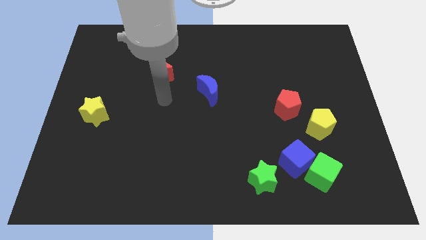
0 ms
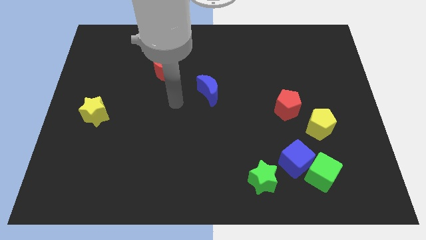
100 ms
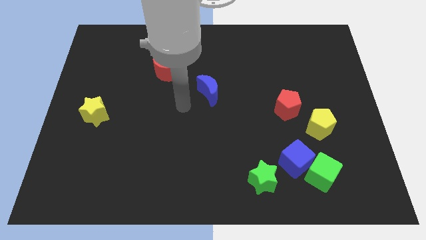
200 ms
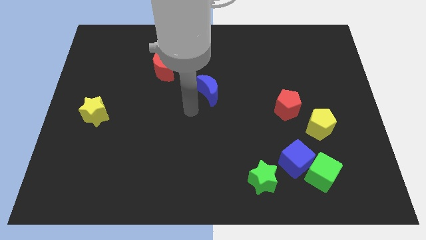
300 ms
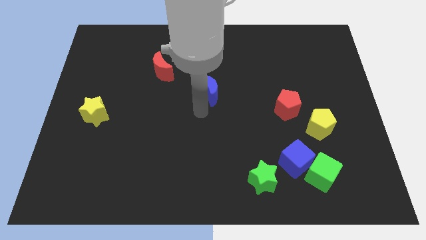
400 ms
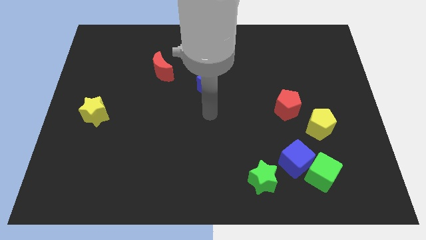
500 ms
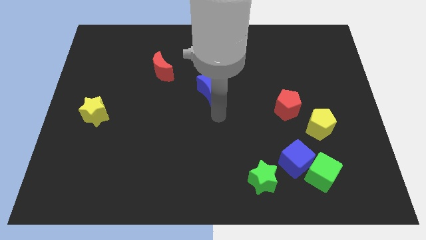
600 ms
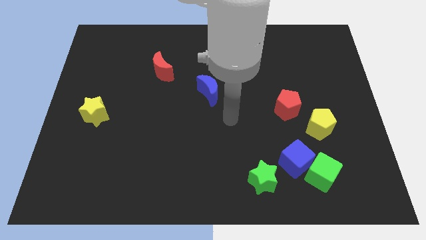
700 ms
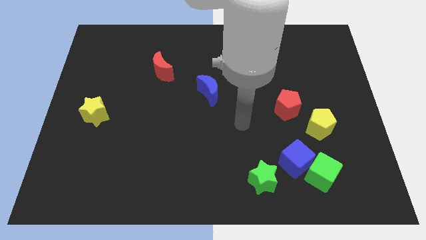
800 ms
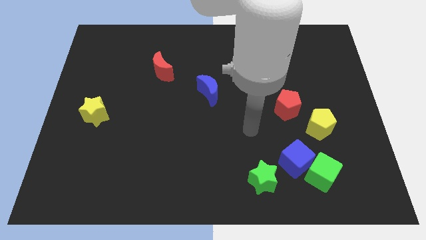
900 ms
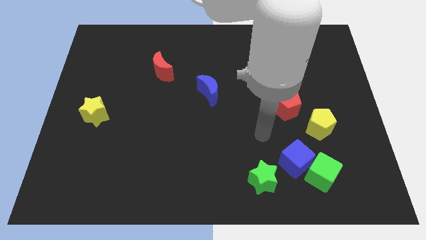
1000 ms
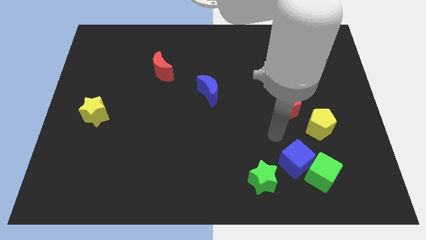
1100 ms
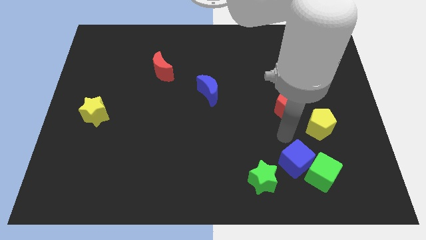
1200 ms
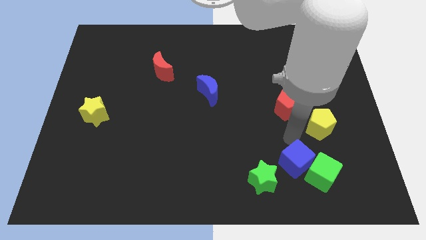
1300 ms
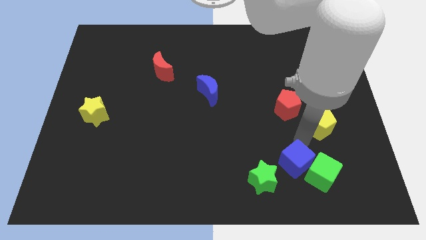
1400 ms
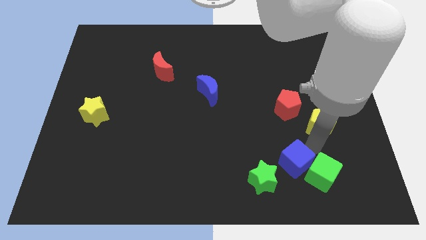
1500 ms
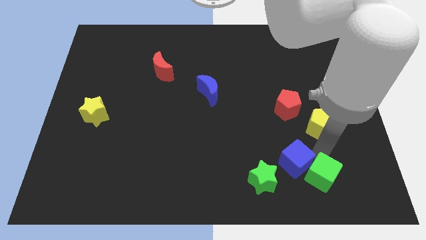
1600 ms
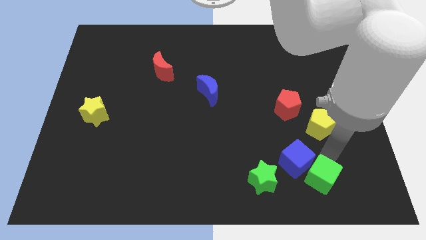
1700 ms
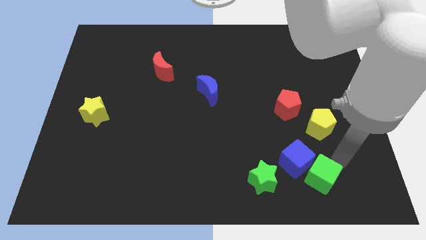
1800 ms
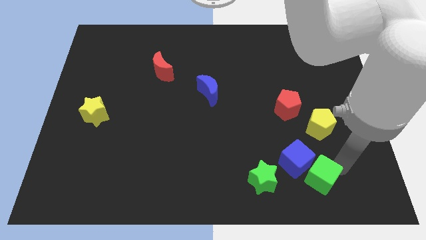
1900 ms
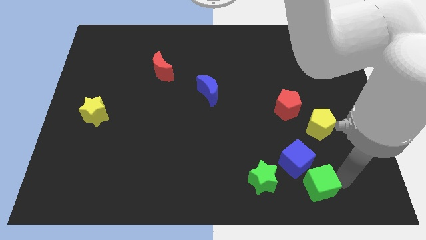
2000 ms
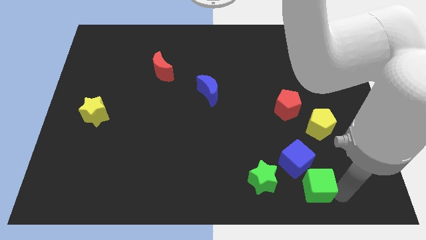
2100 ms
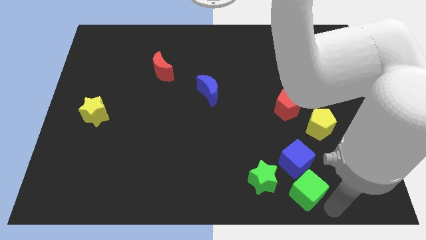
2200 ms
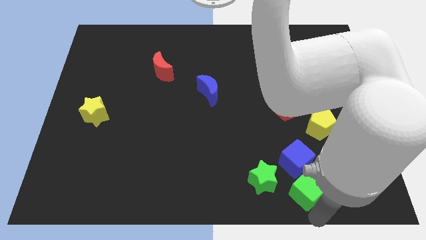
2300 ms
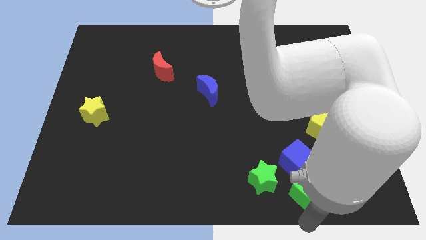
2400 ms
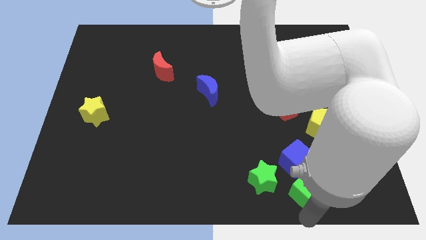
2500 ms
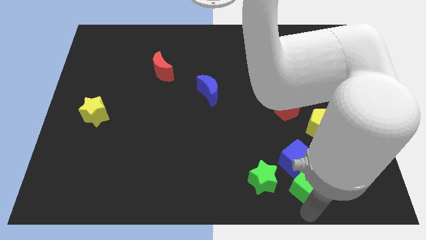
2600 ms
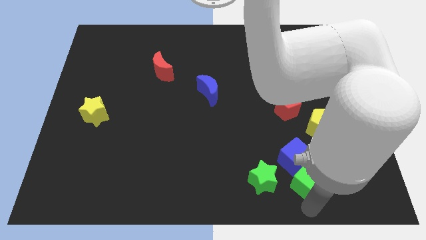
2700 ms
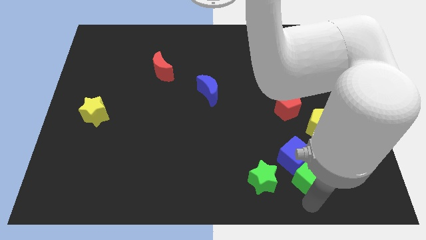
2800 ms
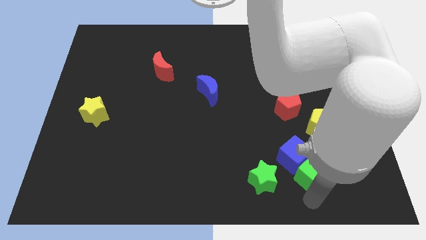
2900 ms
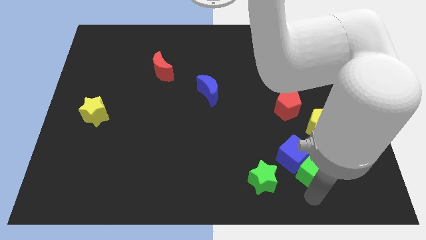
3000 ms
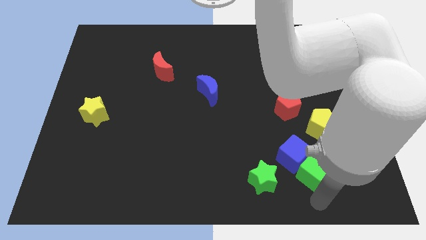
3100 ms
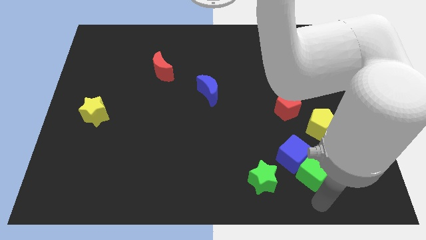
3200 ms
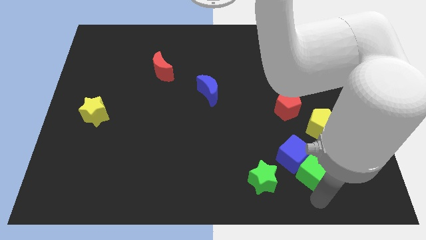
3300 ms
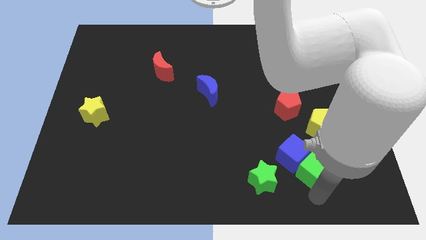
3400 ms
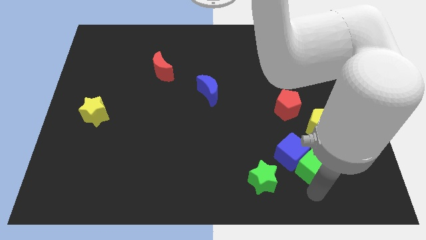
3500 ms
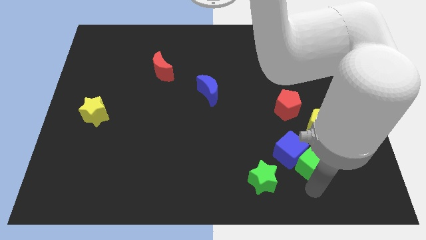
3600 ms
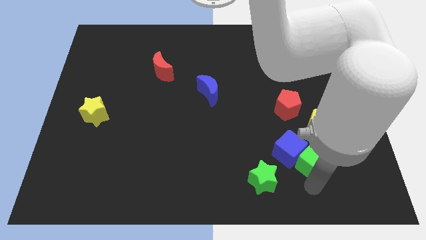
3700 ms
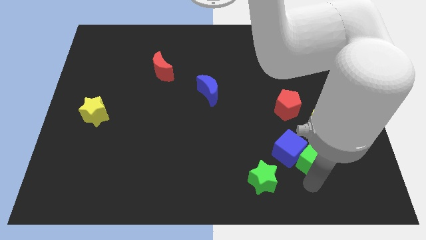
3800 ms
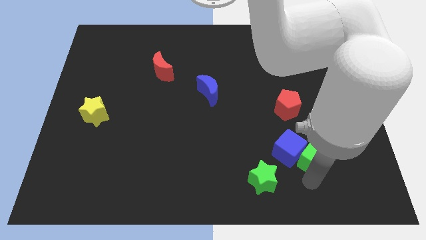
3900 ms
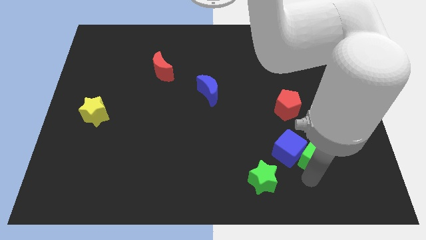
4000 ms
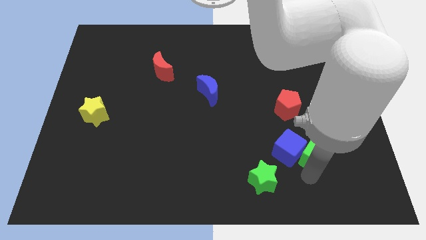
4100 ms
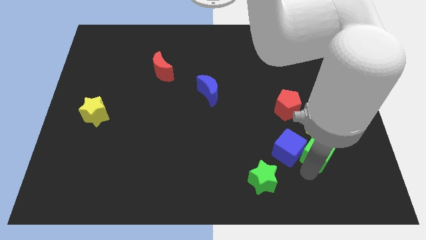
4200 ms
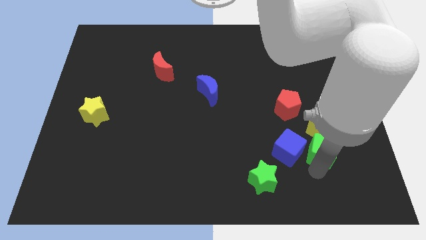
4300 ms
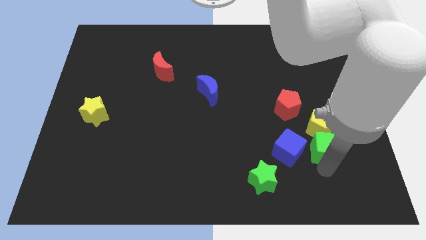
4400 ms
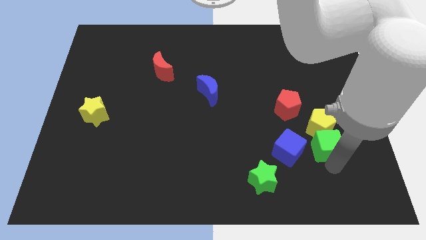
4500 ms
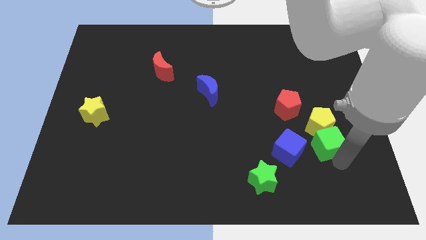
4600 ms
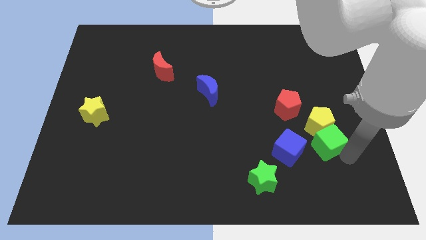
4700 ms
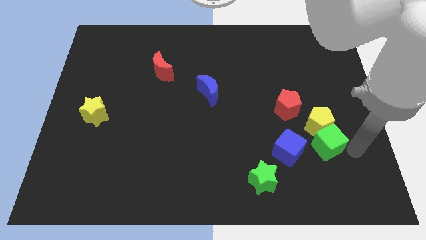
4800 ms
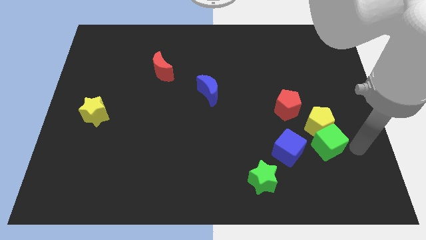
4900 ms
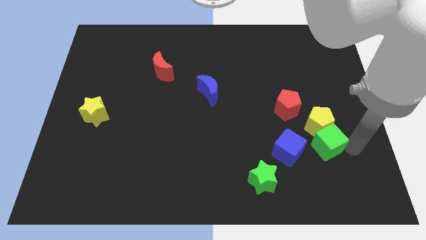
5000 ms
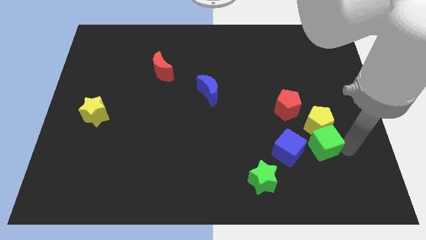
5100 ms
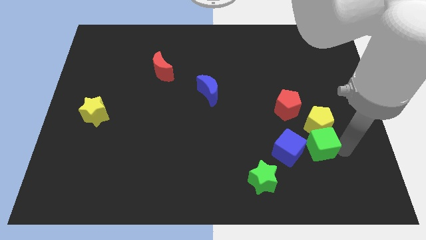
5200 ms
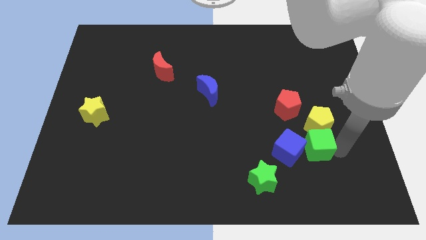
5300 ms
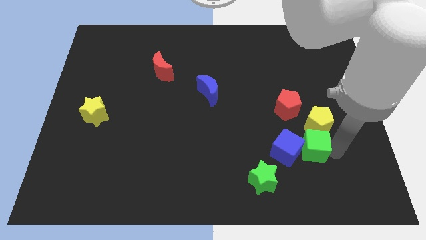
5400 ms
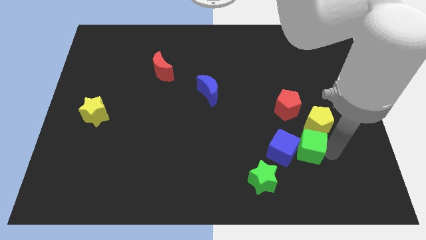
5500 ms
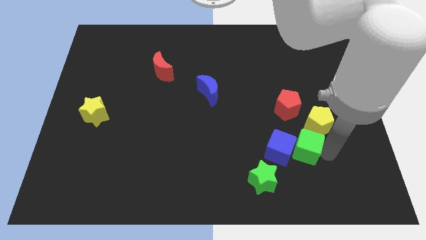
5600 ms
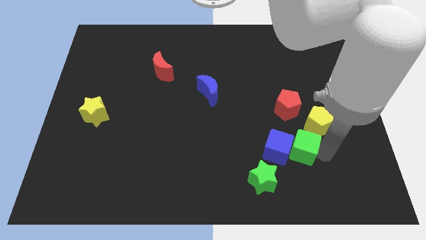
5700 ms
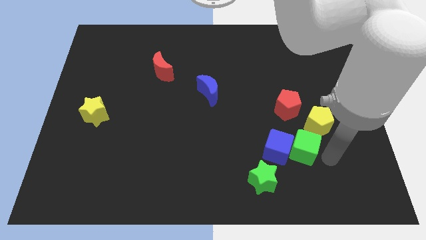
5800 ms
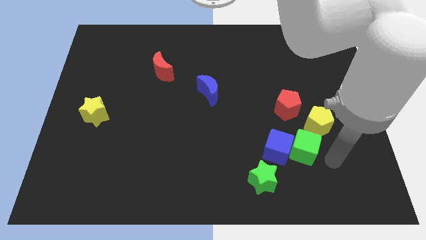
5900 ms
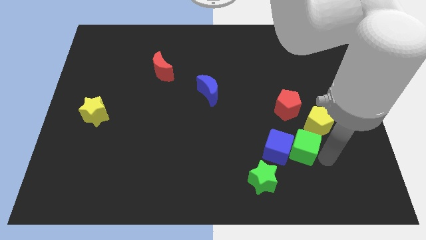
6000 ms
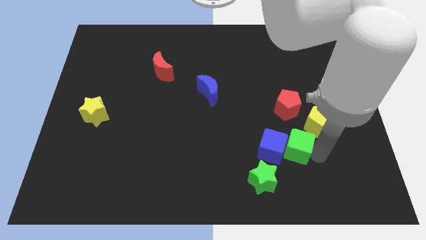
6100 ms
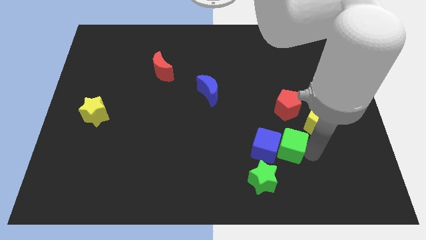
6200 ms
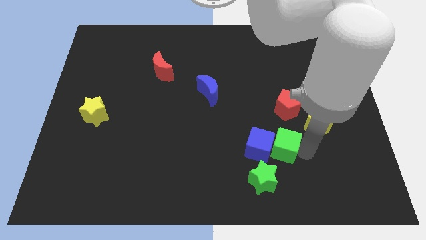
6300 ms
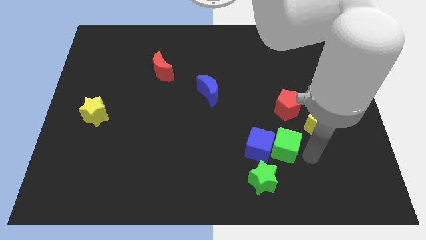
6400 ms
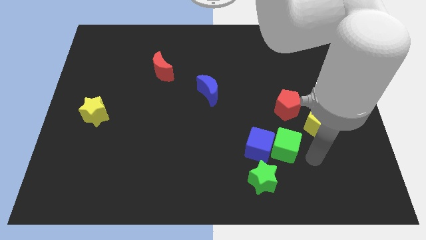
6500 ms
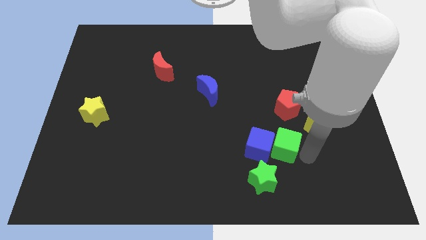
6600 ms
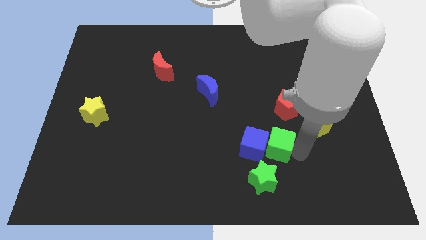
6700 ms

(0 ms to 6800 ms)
move the green cube to the top side of the green star

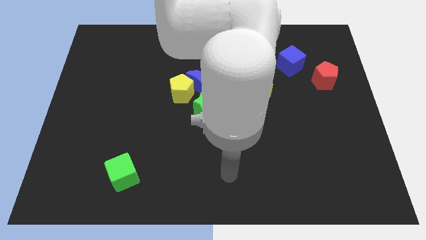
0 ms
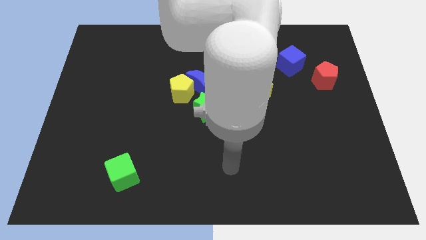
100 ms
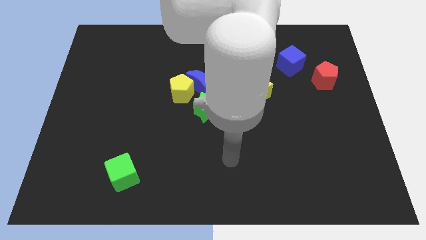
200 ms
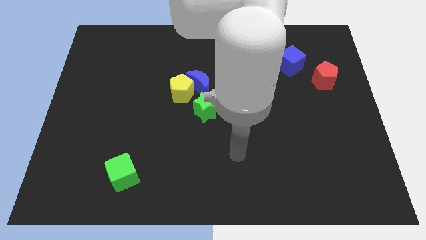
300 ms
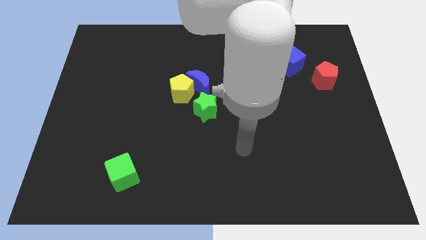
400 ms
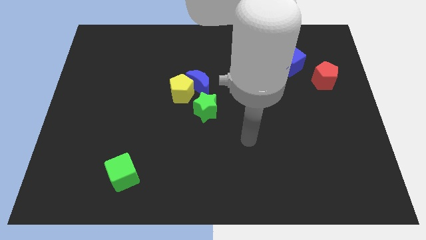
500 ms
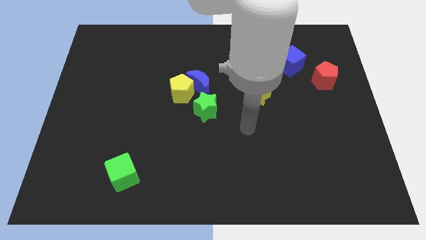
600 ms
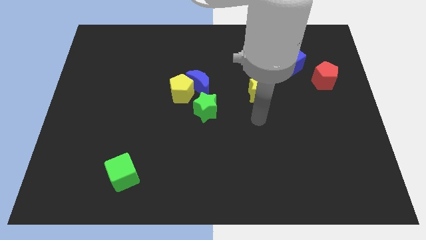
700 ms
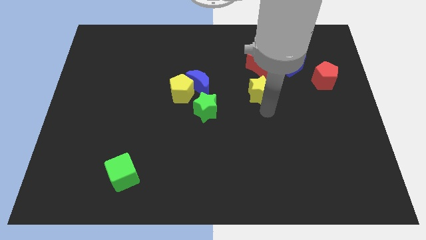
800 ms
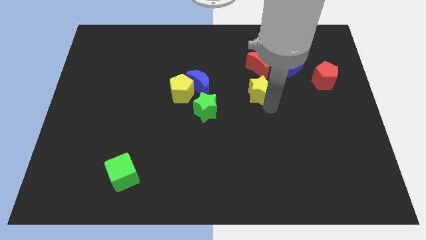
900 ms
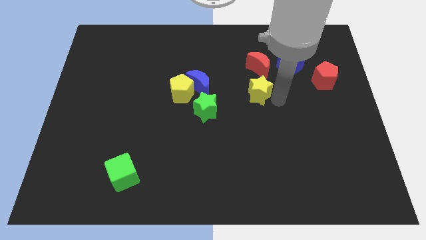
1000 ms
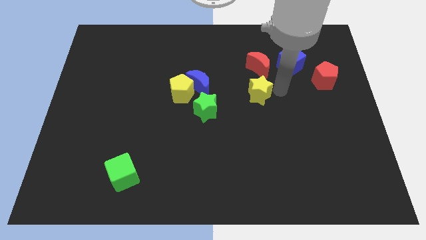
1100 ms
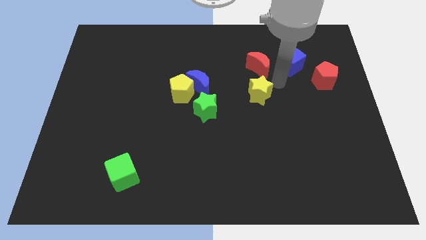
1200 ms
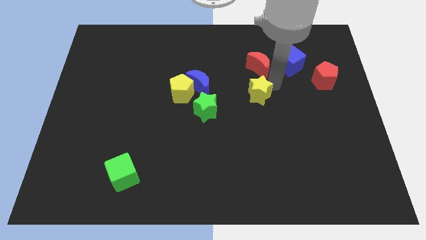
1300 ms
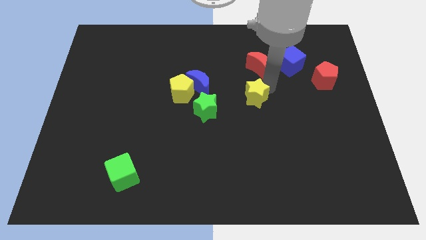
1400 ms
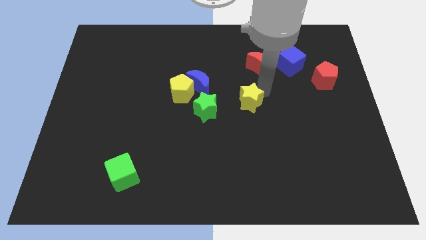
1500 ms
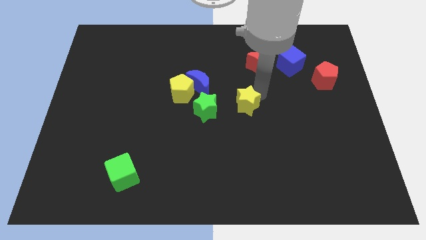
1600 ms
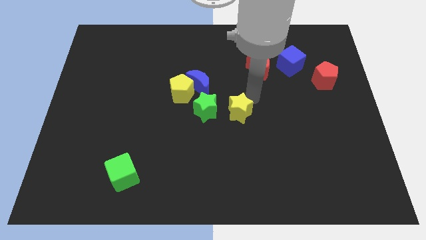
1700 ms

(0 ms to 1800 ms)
put the yellow star diagonally down and to the right of the green star
